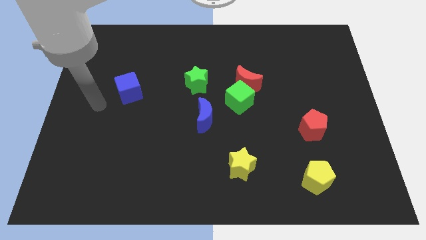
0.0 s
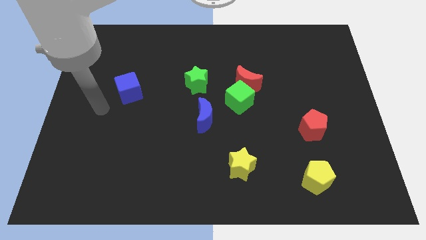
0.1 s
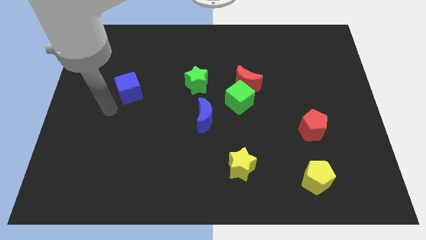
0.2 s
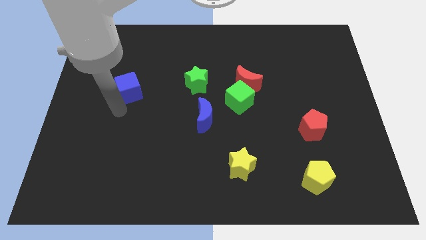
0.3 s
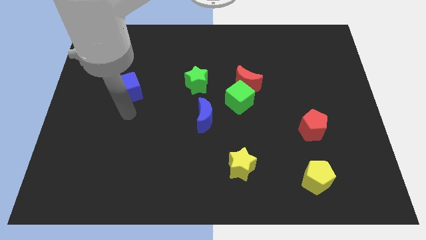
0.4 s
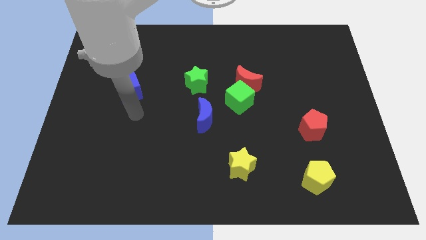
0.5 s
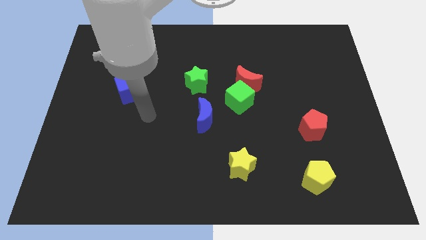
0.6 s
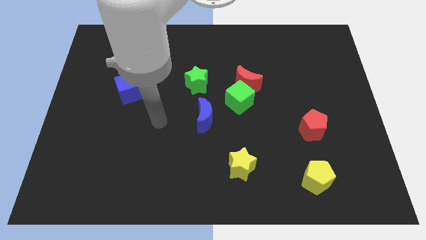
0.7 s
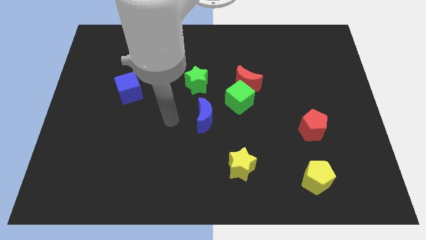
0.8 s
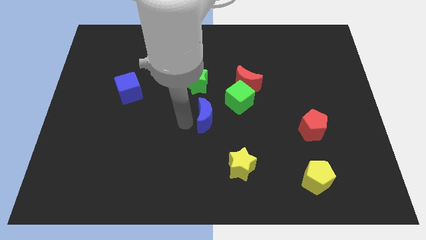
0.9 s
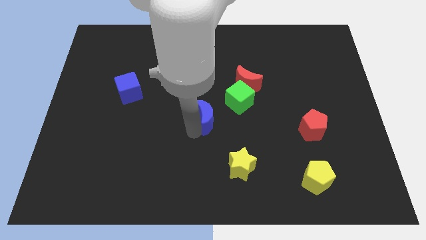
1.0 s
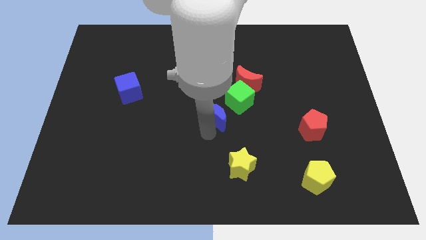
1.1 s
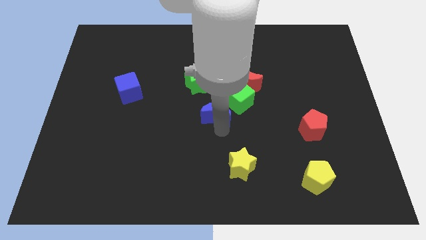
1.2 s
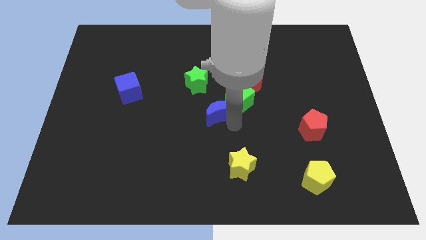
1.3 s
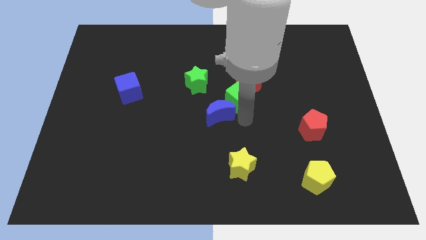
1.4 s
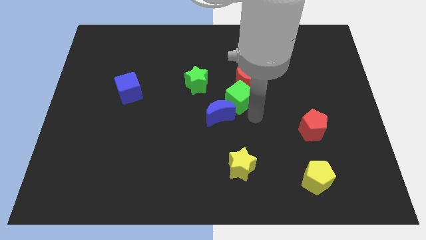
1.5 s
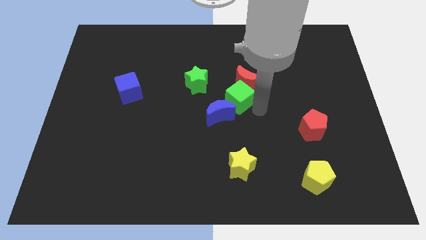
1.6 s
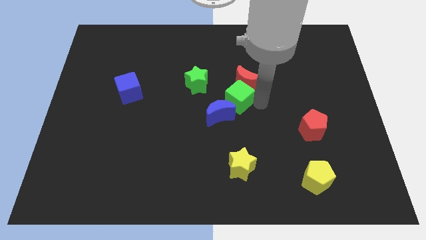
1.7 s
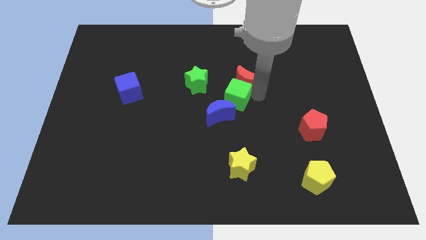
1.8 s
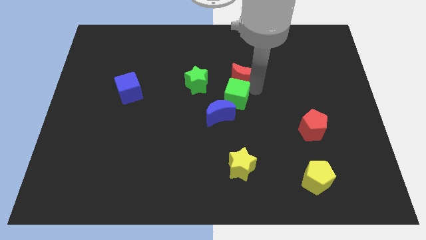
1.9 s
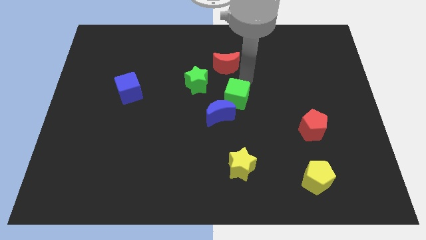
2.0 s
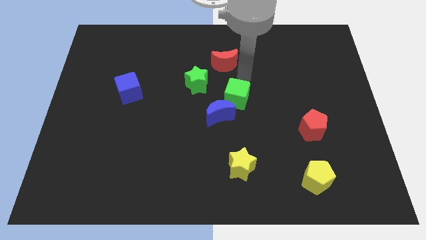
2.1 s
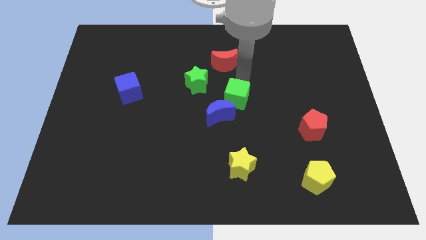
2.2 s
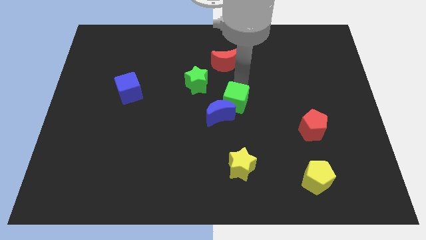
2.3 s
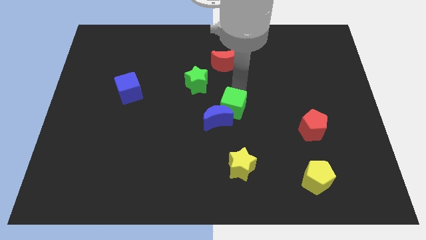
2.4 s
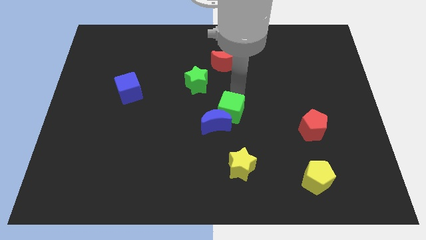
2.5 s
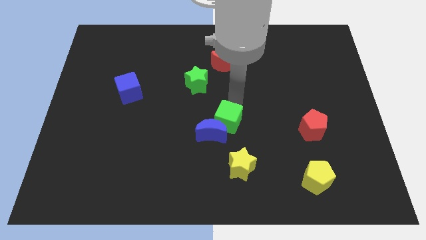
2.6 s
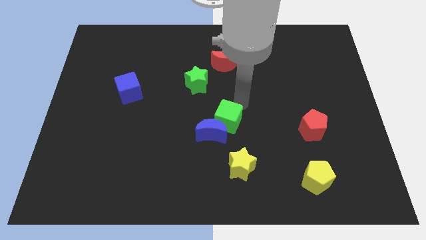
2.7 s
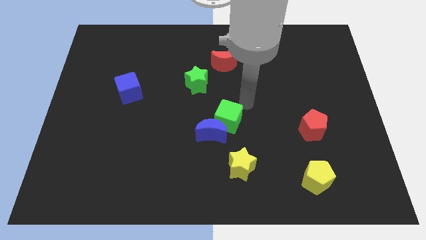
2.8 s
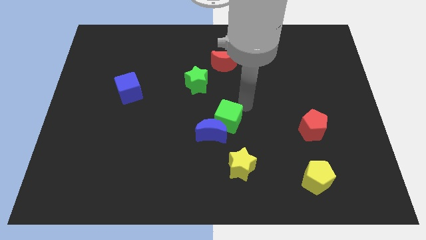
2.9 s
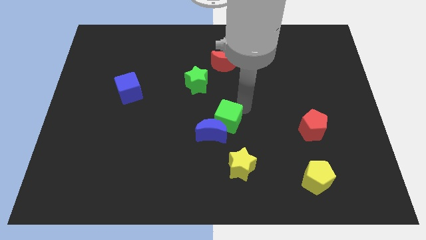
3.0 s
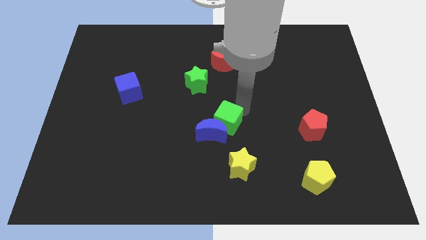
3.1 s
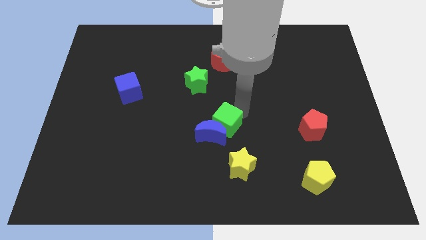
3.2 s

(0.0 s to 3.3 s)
move the green cube somewhat downwards and left diagonally

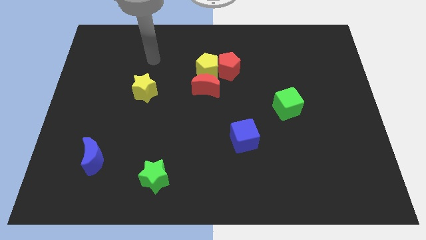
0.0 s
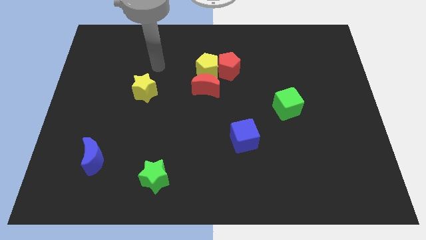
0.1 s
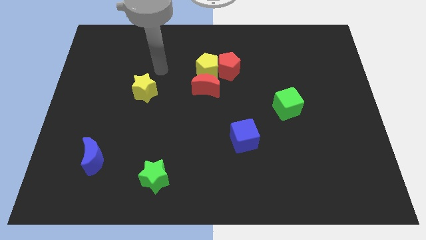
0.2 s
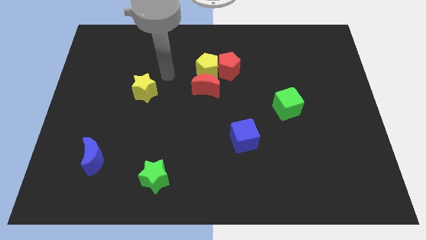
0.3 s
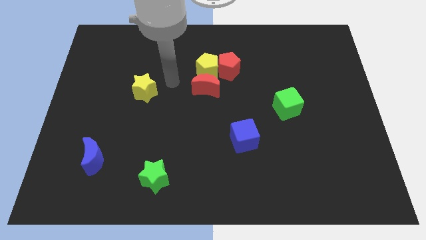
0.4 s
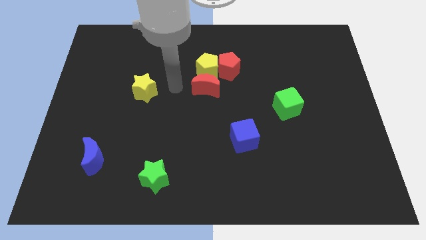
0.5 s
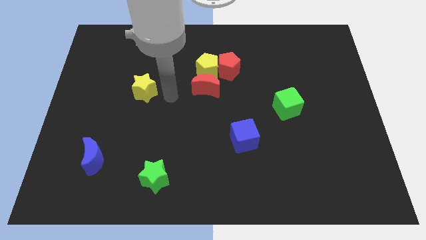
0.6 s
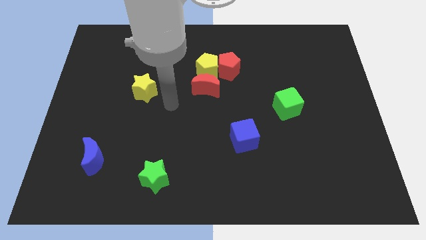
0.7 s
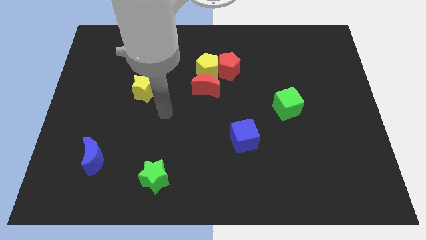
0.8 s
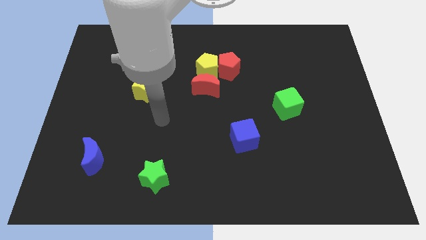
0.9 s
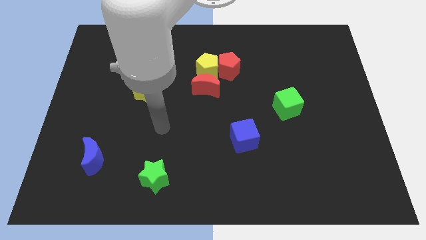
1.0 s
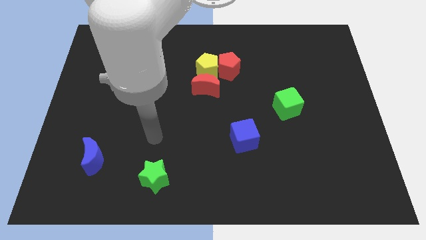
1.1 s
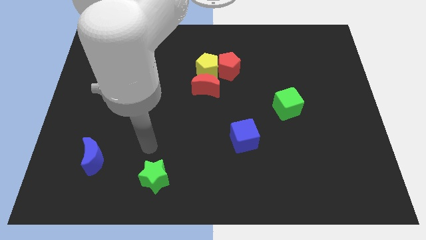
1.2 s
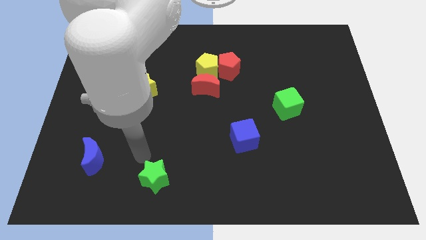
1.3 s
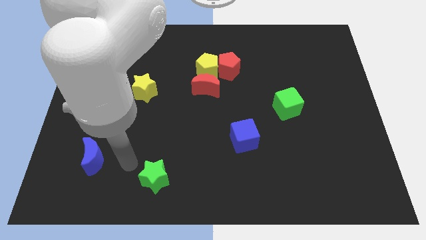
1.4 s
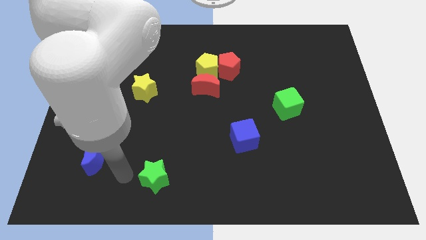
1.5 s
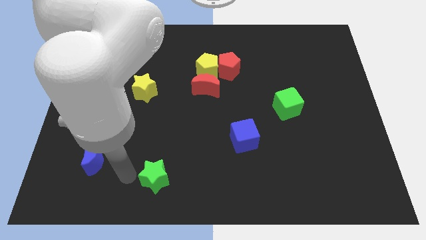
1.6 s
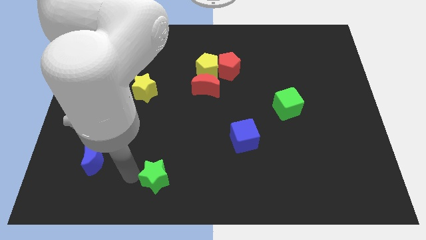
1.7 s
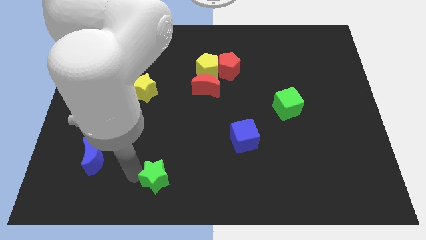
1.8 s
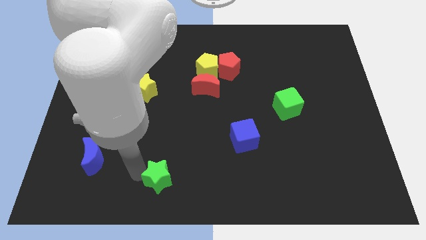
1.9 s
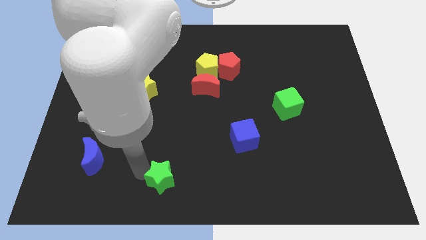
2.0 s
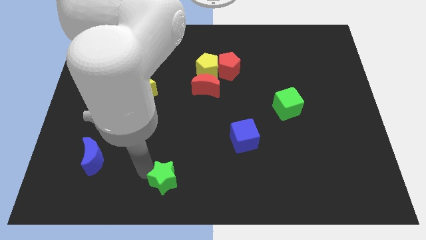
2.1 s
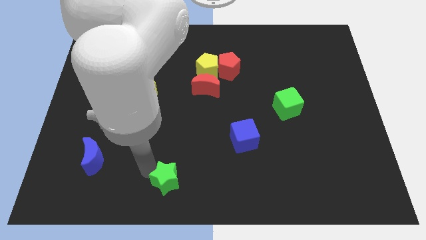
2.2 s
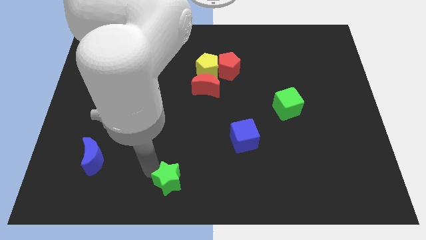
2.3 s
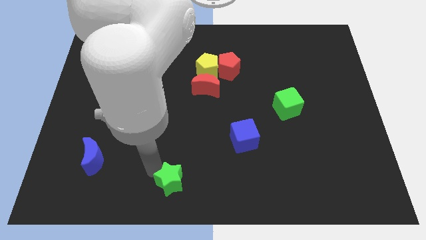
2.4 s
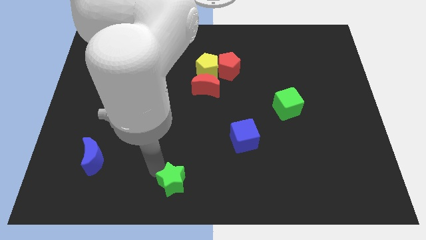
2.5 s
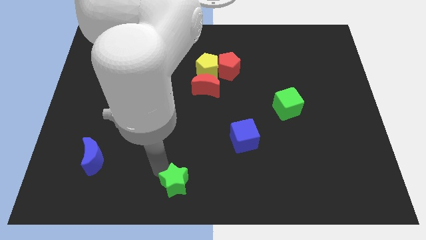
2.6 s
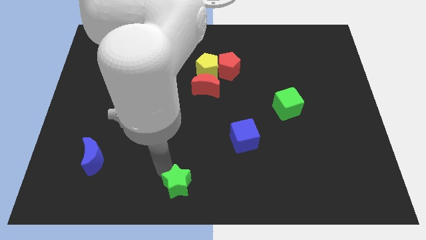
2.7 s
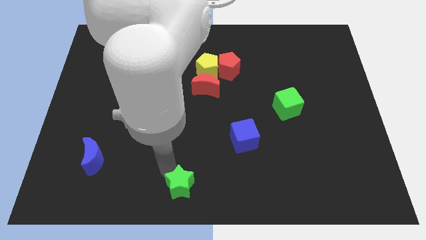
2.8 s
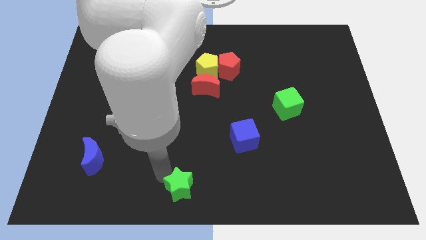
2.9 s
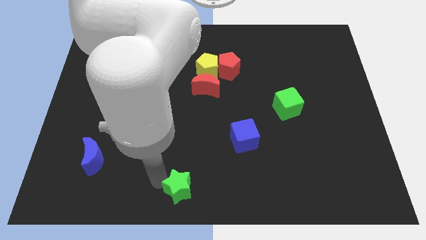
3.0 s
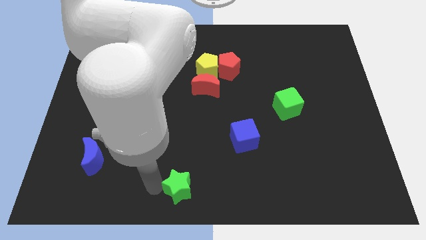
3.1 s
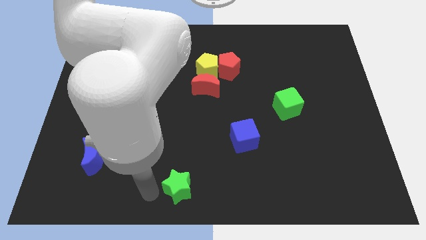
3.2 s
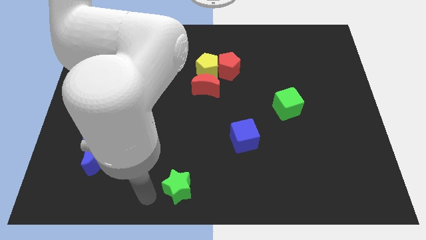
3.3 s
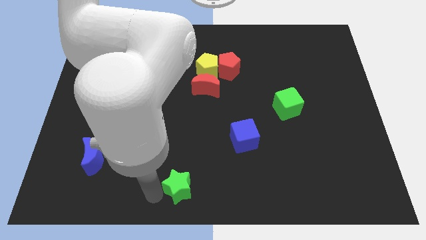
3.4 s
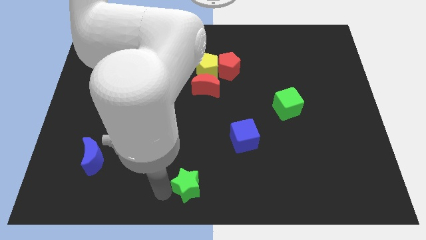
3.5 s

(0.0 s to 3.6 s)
slightly move the green star to the right

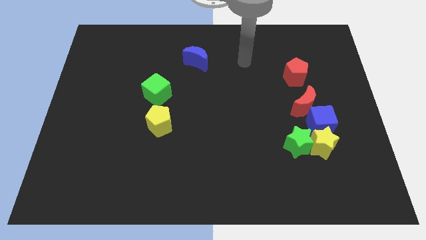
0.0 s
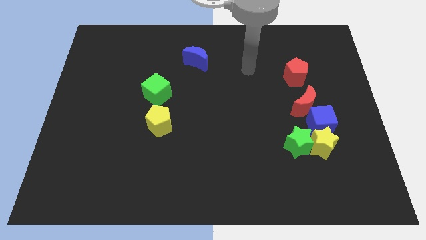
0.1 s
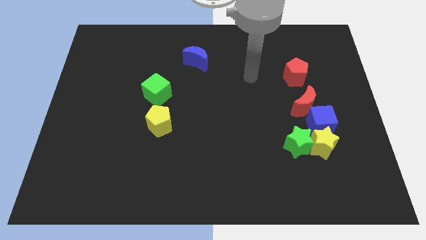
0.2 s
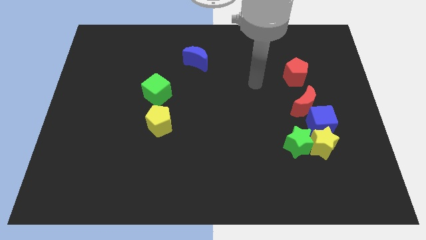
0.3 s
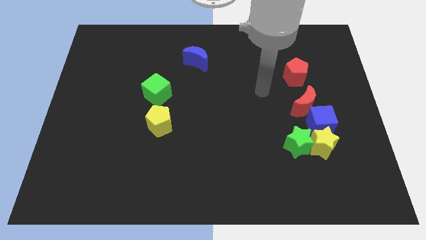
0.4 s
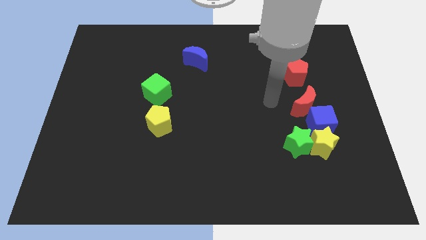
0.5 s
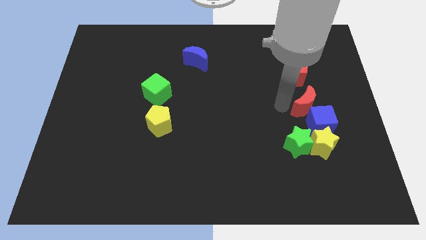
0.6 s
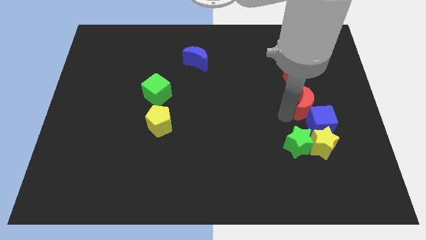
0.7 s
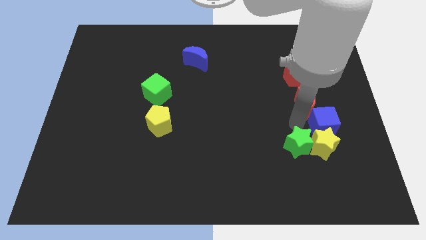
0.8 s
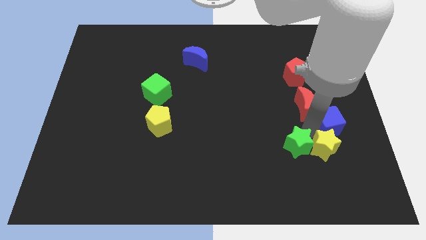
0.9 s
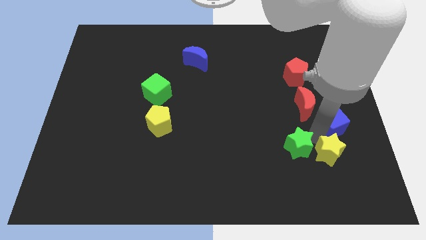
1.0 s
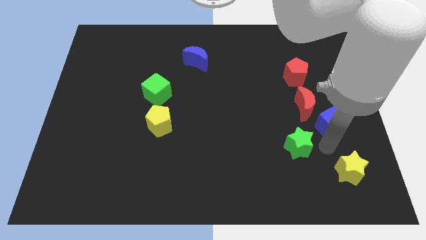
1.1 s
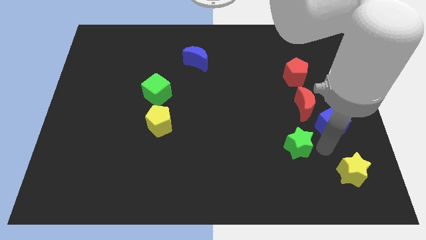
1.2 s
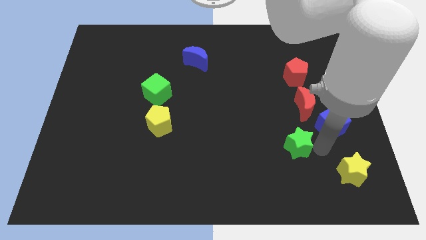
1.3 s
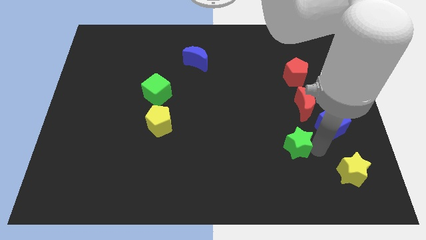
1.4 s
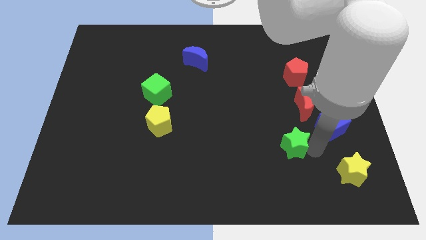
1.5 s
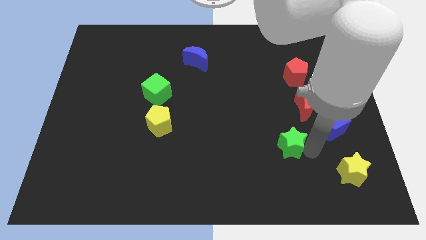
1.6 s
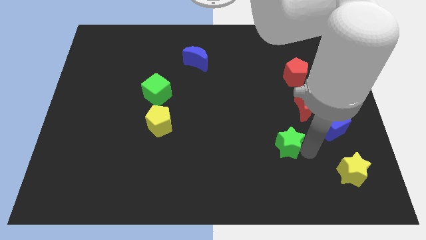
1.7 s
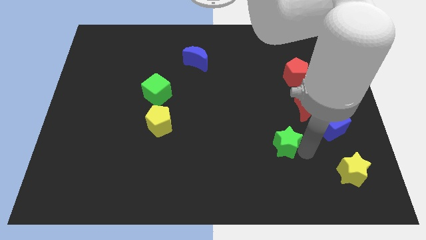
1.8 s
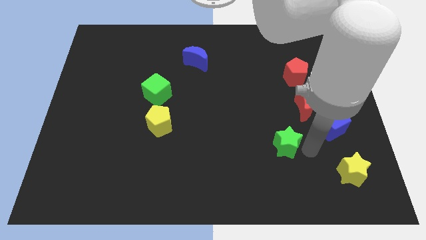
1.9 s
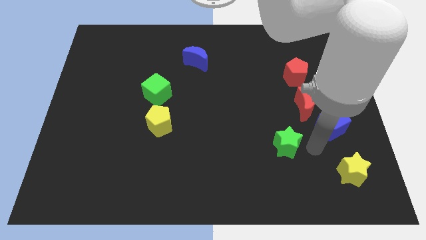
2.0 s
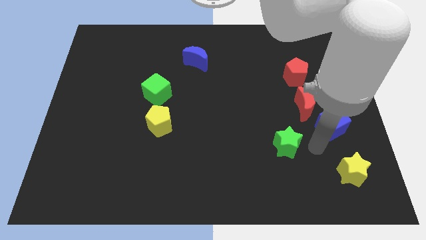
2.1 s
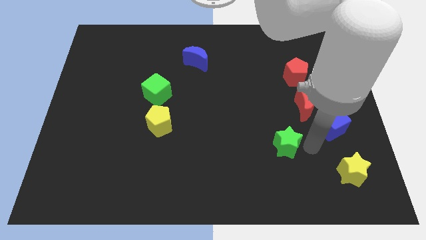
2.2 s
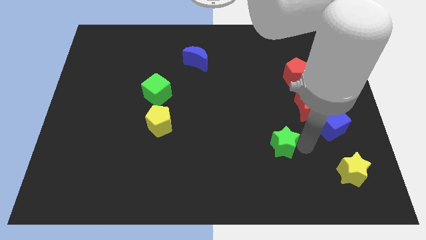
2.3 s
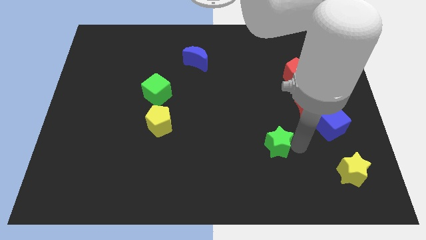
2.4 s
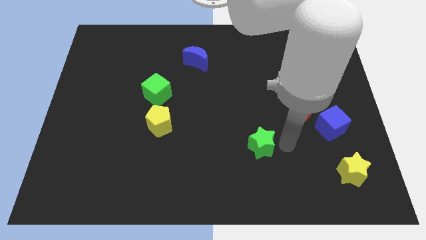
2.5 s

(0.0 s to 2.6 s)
slightly move the green star left
